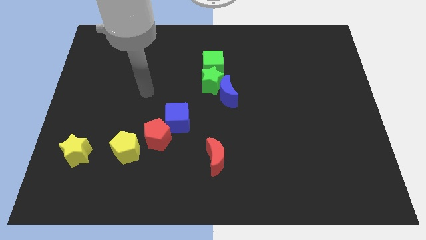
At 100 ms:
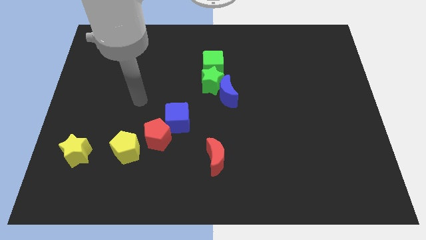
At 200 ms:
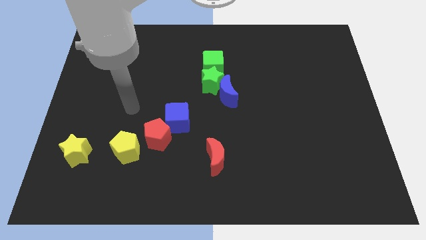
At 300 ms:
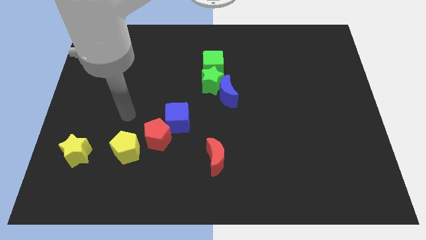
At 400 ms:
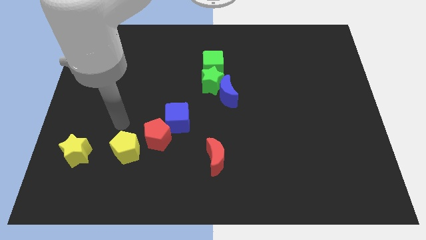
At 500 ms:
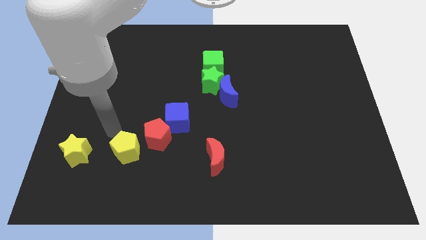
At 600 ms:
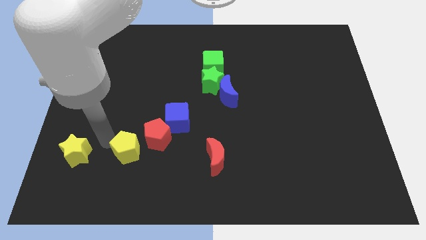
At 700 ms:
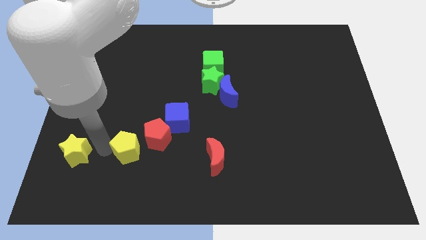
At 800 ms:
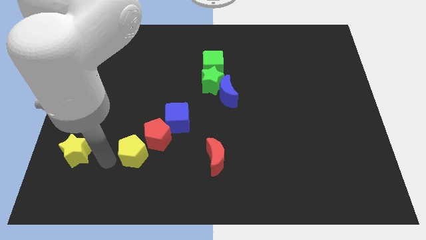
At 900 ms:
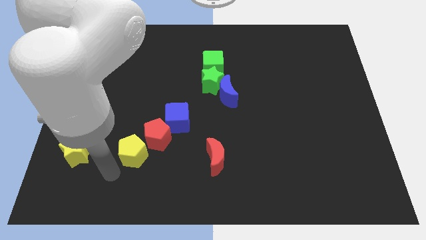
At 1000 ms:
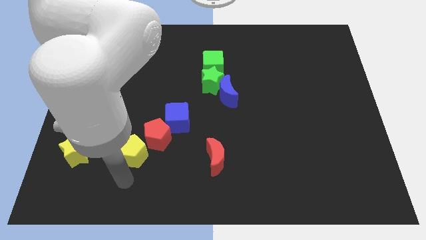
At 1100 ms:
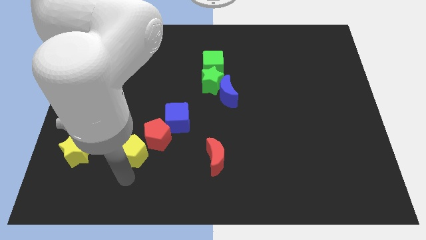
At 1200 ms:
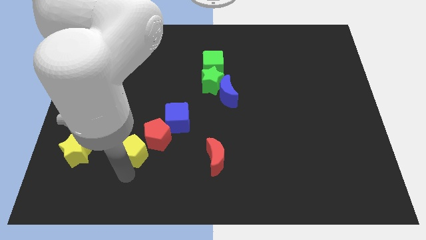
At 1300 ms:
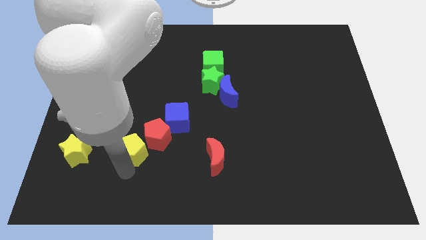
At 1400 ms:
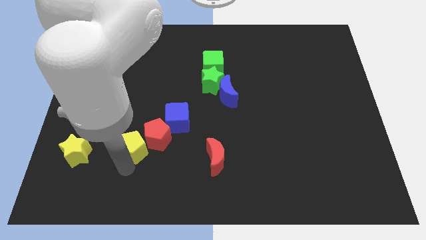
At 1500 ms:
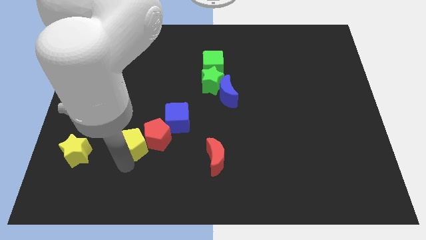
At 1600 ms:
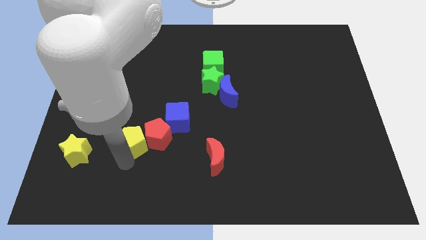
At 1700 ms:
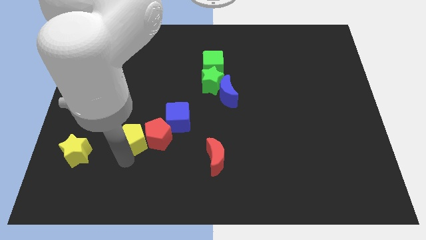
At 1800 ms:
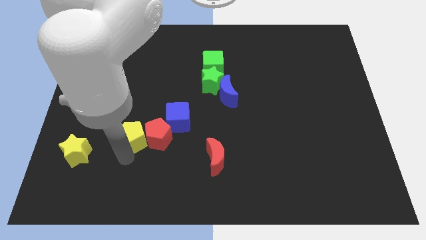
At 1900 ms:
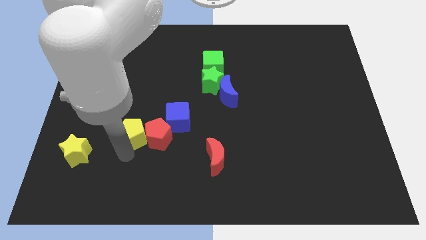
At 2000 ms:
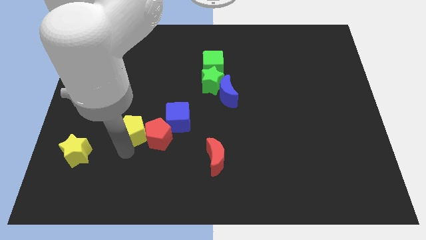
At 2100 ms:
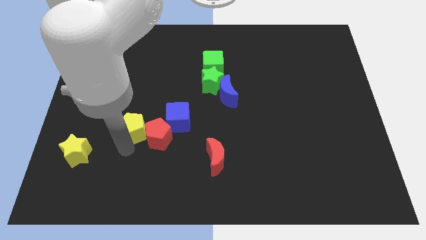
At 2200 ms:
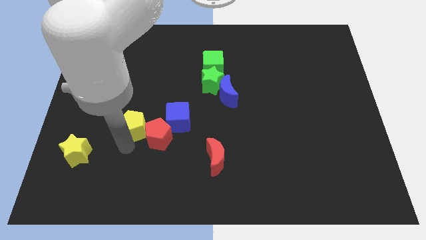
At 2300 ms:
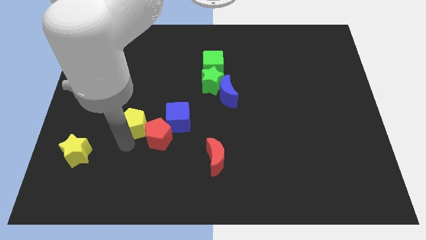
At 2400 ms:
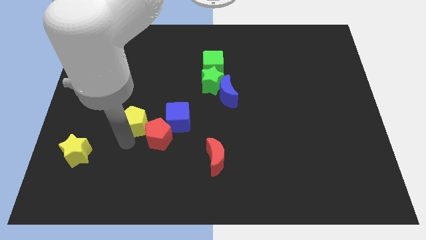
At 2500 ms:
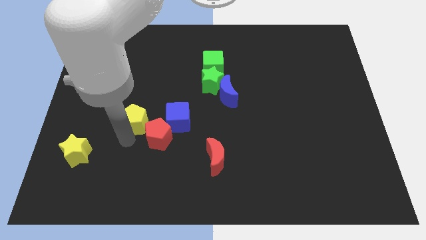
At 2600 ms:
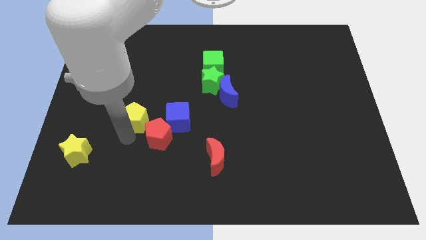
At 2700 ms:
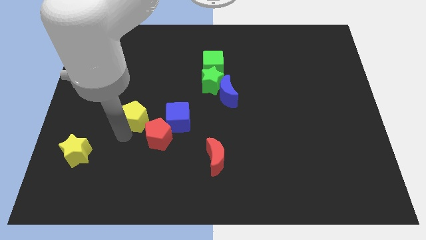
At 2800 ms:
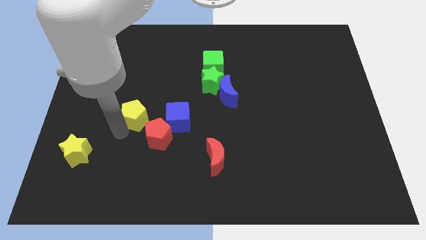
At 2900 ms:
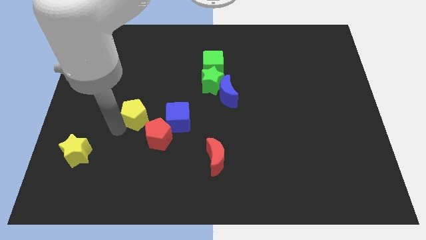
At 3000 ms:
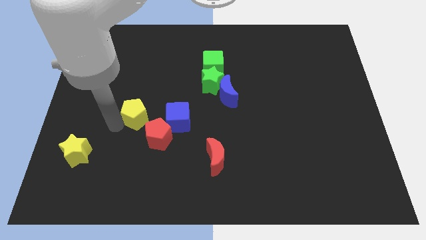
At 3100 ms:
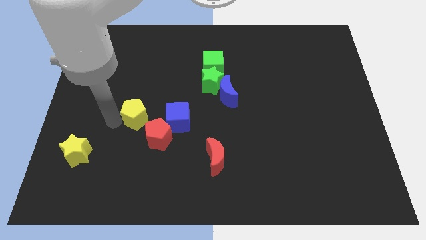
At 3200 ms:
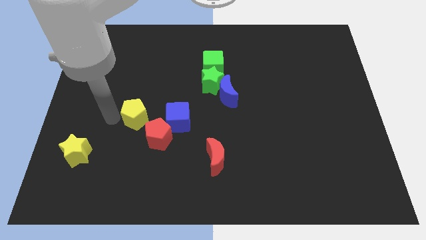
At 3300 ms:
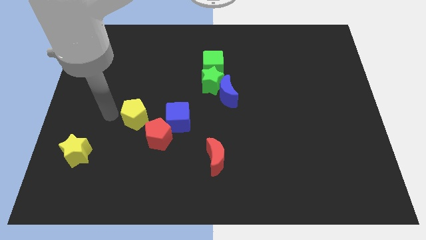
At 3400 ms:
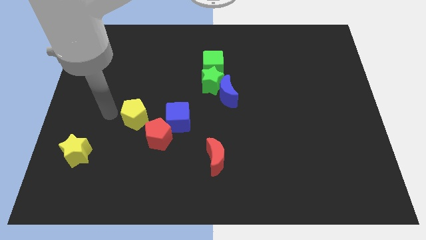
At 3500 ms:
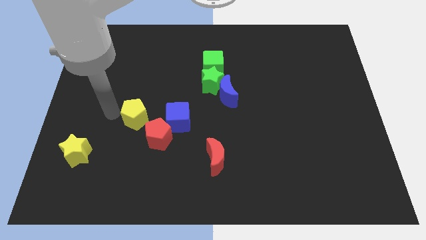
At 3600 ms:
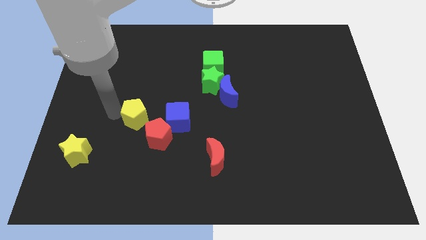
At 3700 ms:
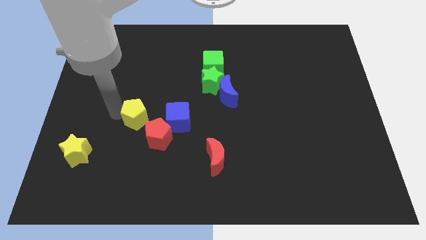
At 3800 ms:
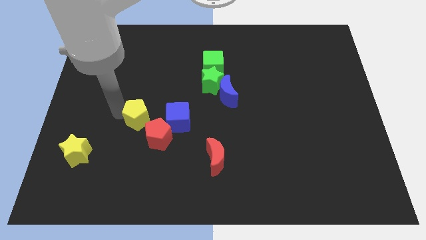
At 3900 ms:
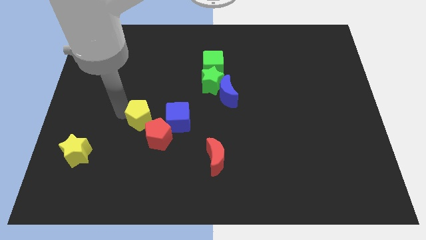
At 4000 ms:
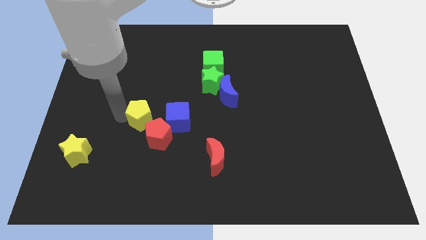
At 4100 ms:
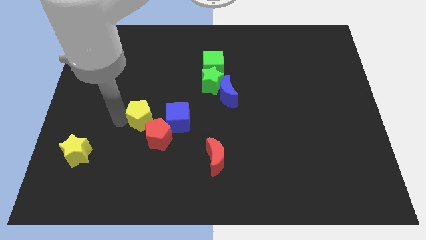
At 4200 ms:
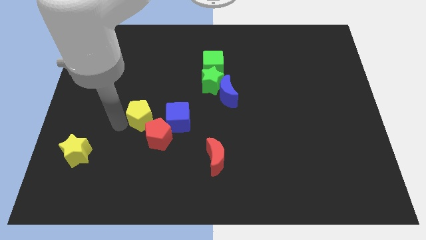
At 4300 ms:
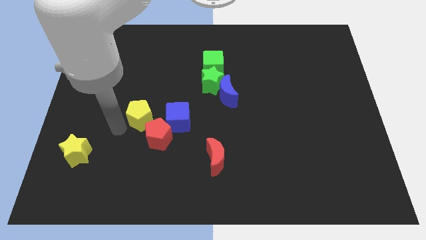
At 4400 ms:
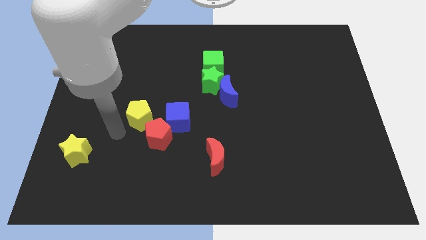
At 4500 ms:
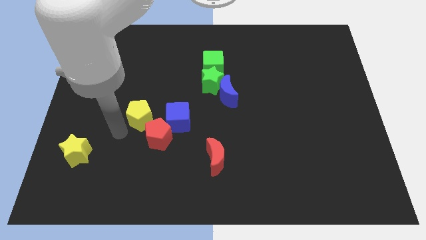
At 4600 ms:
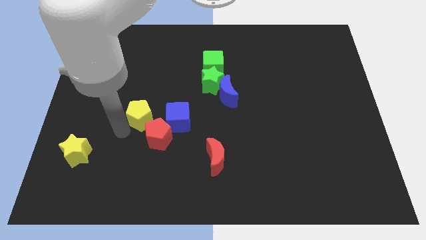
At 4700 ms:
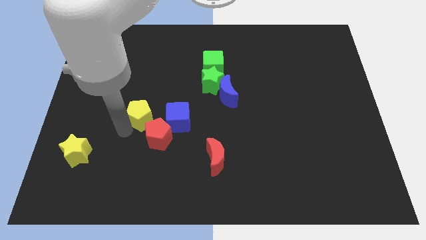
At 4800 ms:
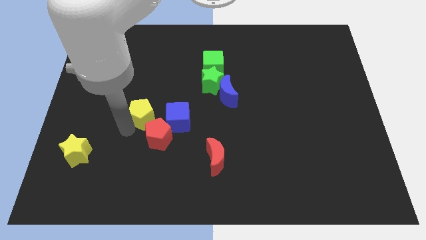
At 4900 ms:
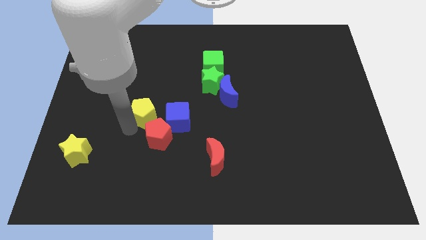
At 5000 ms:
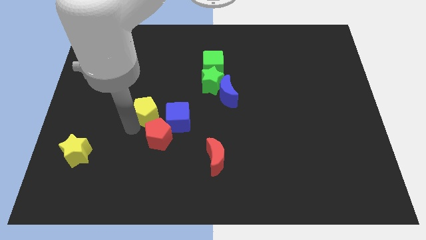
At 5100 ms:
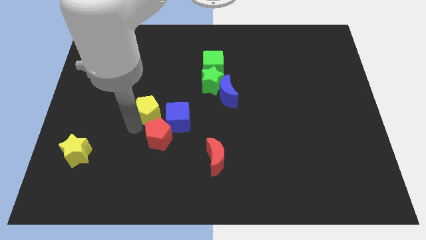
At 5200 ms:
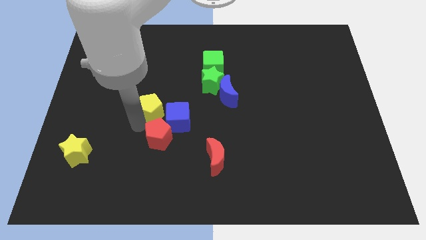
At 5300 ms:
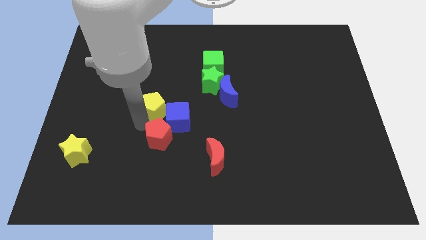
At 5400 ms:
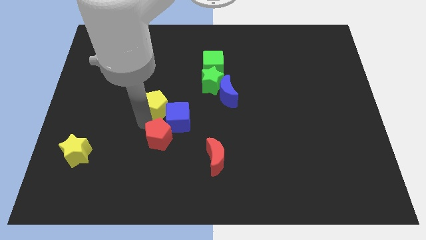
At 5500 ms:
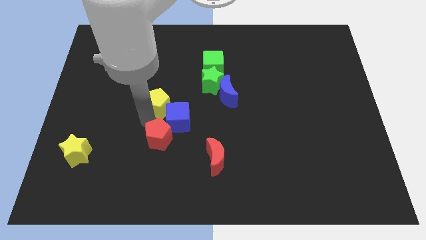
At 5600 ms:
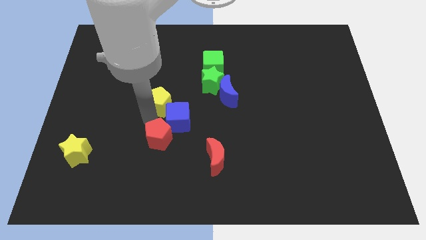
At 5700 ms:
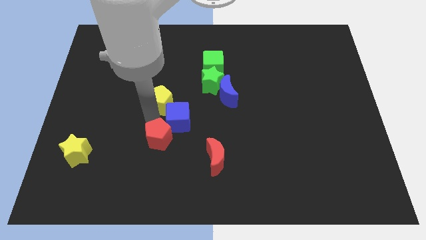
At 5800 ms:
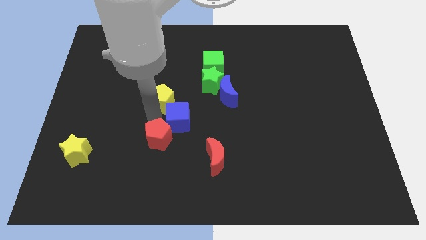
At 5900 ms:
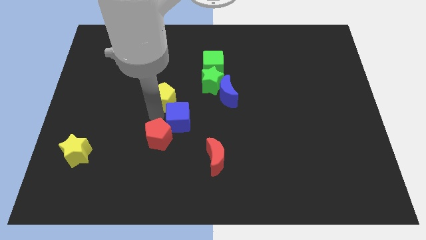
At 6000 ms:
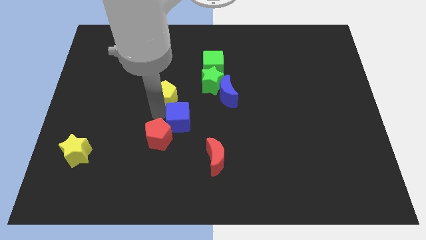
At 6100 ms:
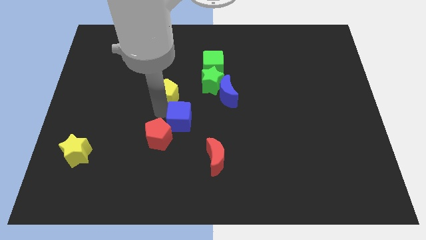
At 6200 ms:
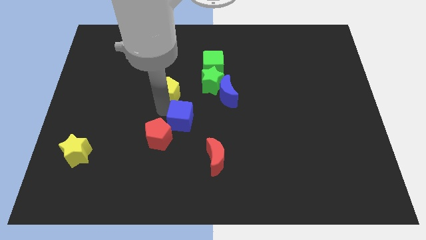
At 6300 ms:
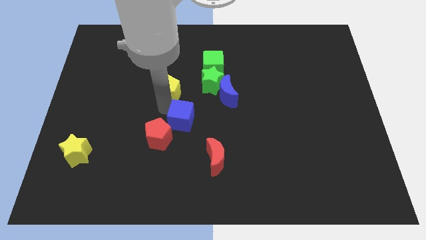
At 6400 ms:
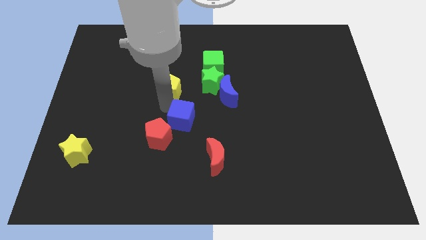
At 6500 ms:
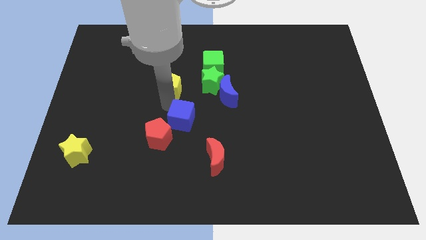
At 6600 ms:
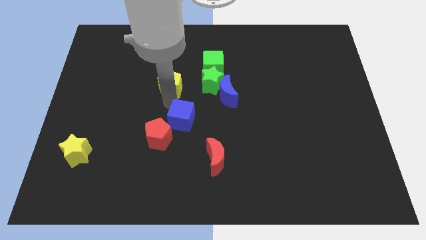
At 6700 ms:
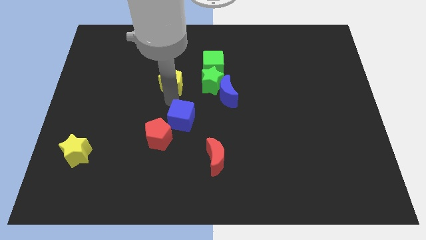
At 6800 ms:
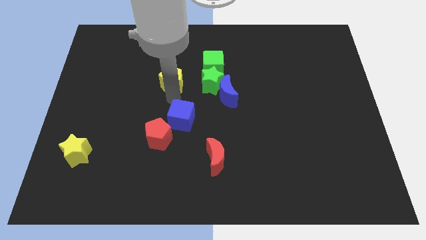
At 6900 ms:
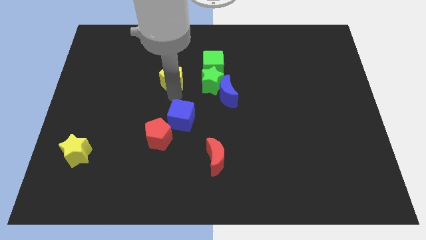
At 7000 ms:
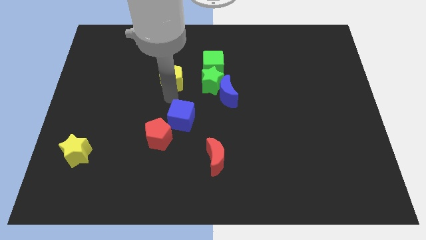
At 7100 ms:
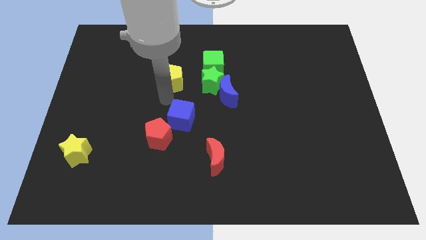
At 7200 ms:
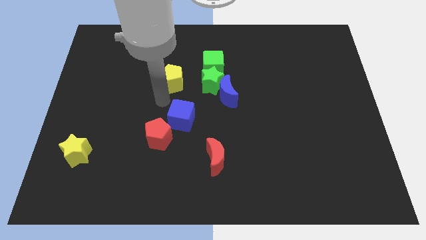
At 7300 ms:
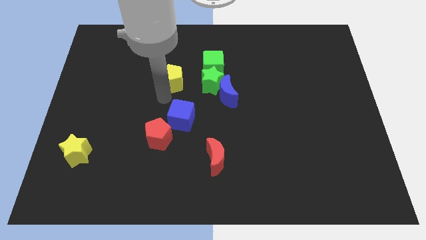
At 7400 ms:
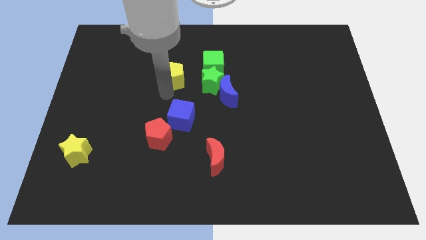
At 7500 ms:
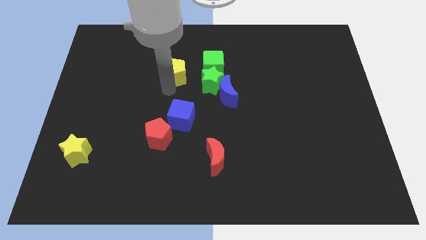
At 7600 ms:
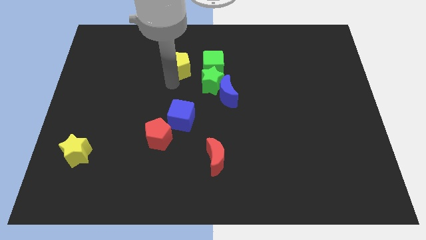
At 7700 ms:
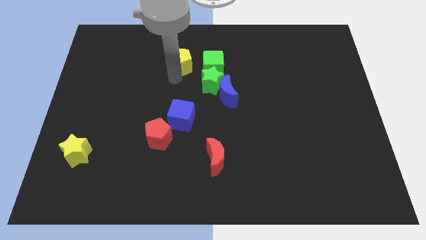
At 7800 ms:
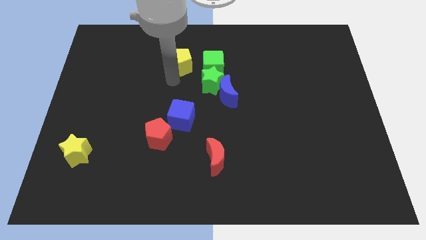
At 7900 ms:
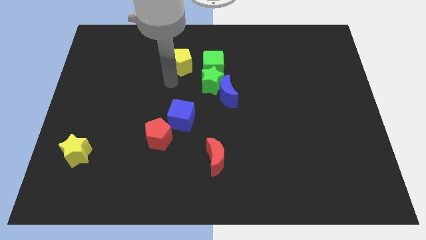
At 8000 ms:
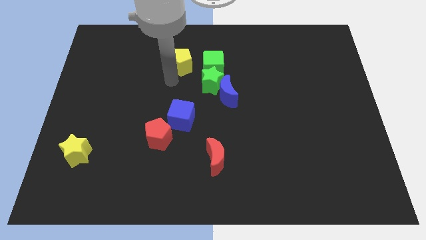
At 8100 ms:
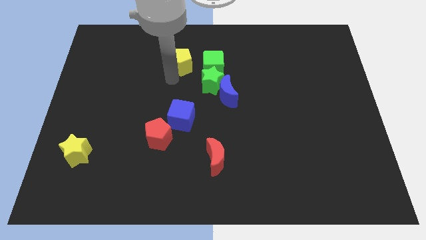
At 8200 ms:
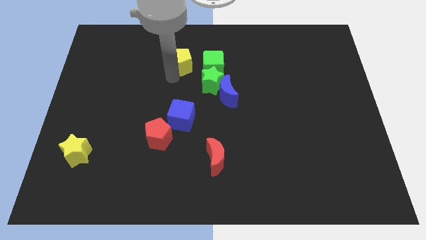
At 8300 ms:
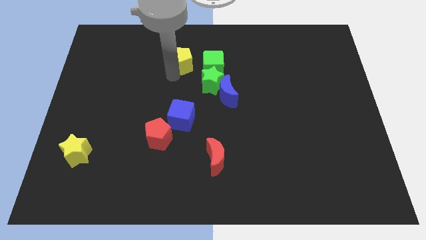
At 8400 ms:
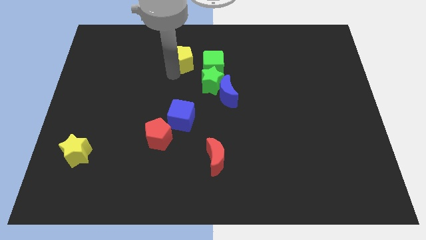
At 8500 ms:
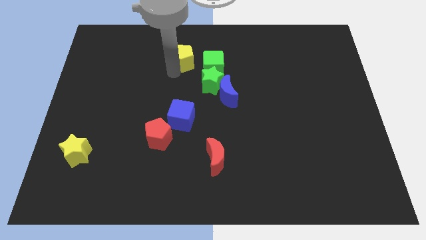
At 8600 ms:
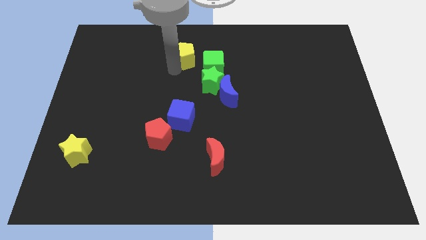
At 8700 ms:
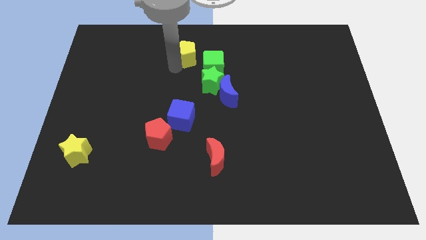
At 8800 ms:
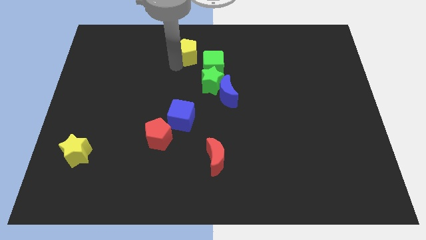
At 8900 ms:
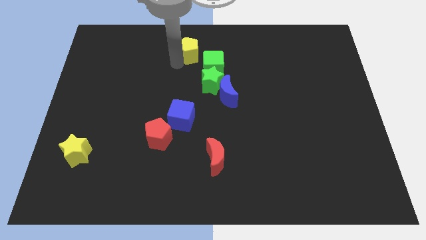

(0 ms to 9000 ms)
push the yellow pentagon to the top
